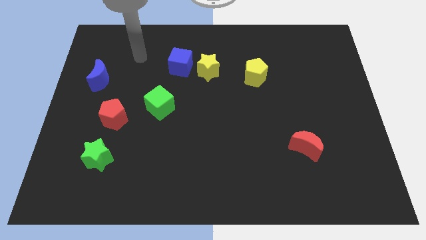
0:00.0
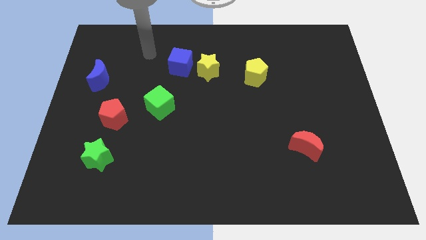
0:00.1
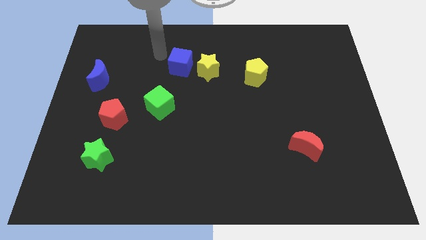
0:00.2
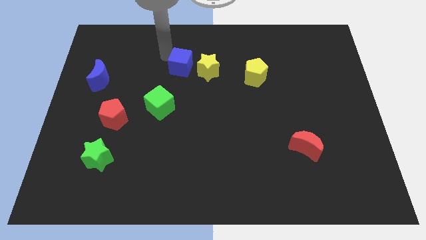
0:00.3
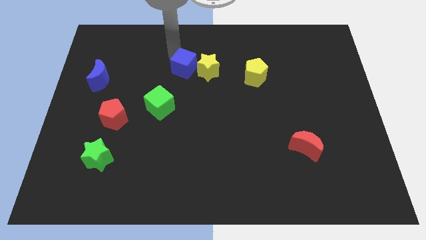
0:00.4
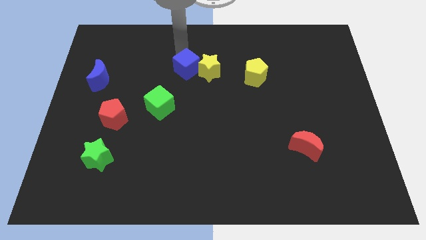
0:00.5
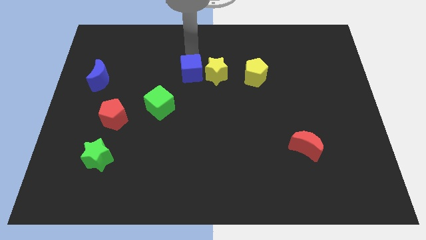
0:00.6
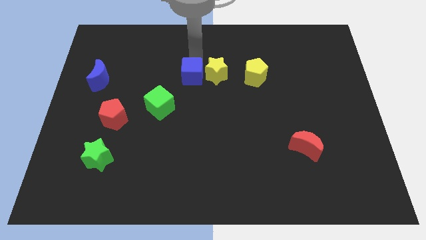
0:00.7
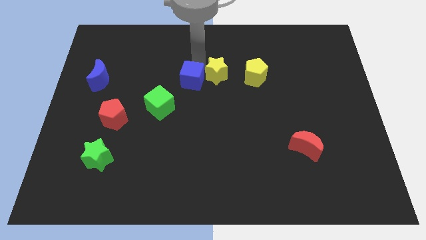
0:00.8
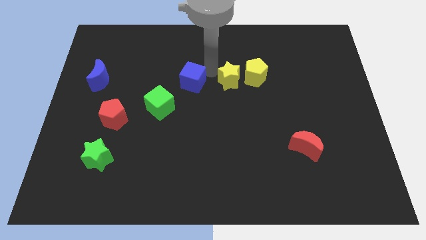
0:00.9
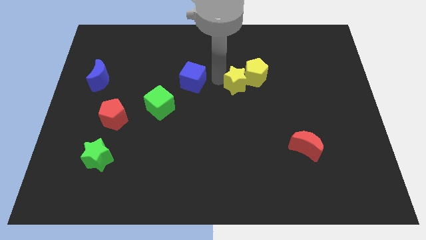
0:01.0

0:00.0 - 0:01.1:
pull the blue cube apart from the yellow star

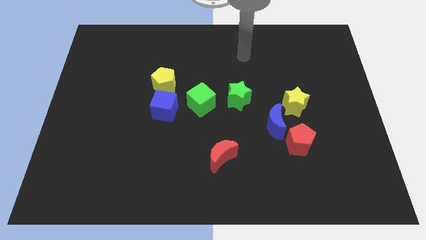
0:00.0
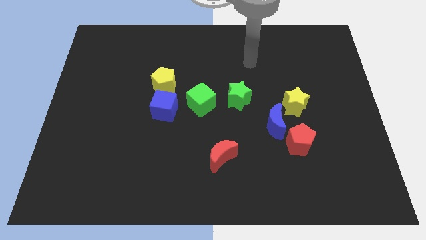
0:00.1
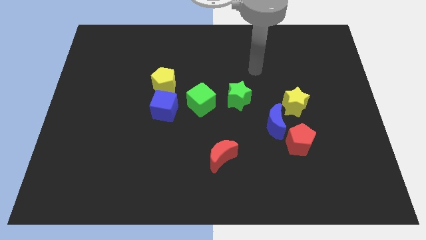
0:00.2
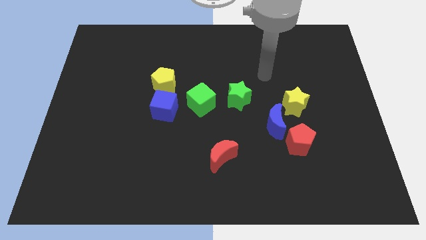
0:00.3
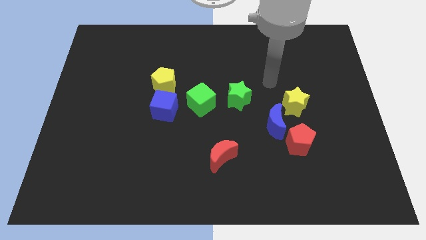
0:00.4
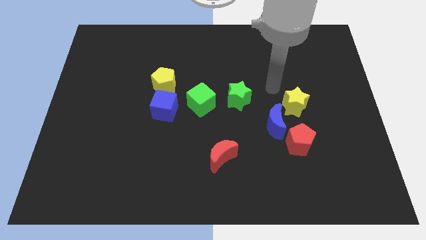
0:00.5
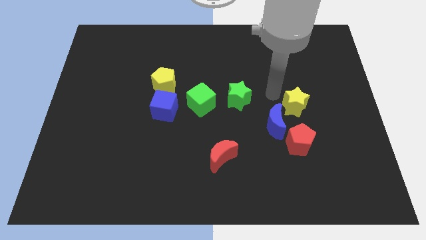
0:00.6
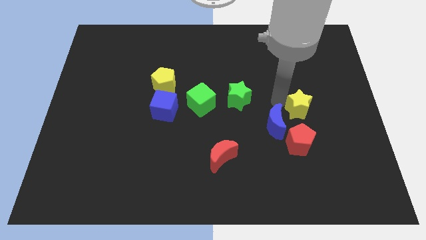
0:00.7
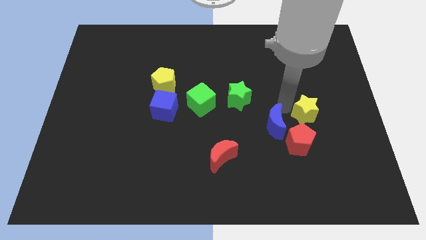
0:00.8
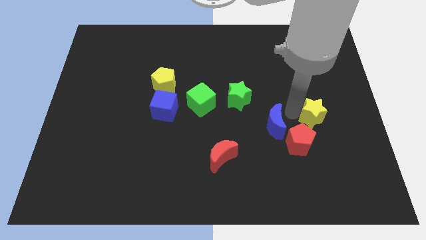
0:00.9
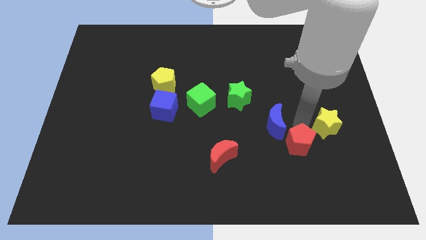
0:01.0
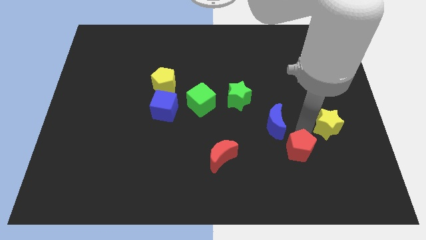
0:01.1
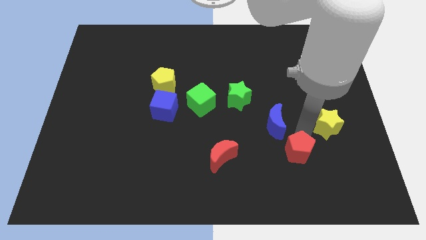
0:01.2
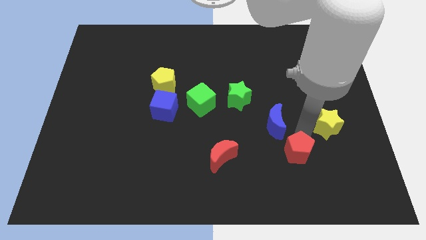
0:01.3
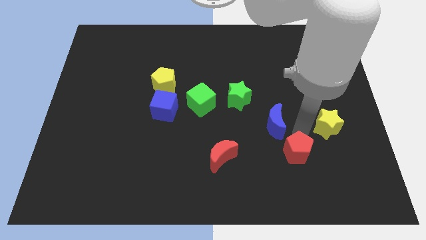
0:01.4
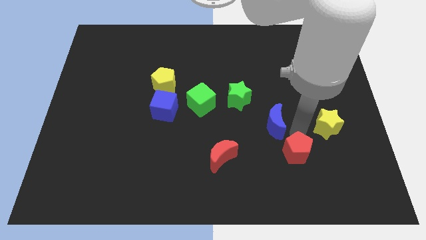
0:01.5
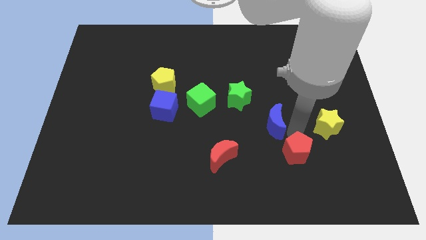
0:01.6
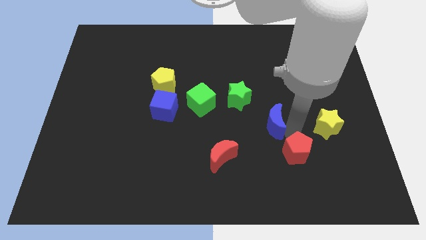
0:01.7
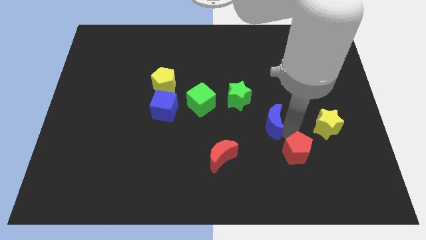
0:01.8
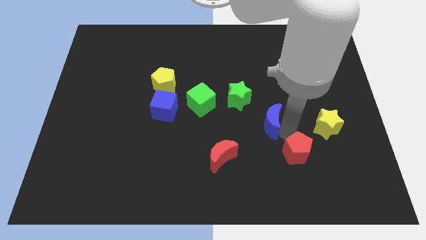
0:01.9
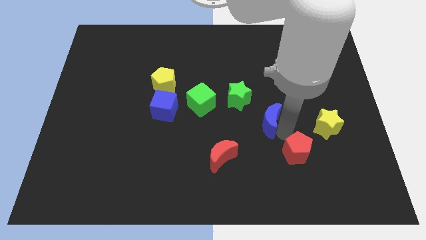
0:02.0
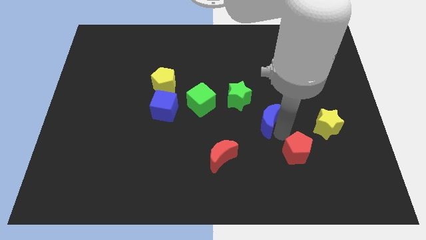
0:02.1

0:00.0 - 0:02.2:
separate the blue moon from the red pentagon and yellow star

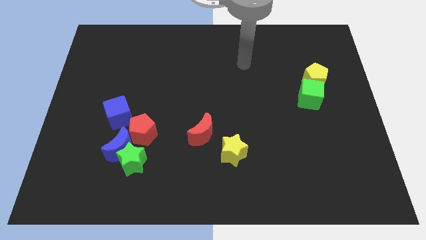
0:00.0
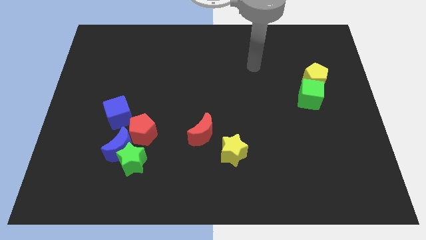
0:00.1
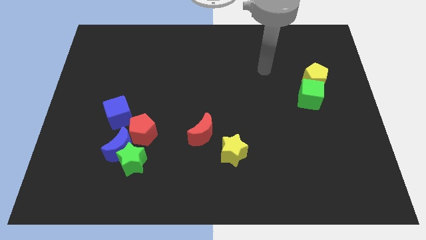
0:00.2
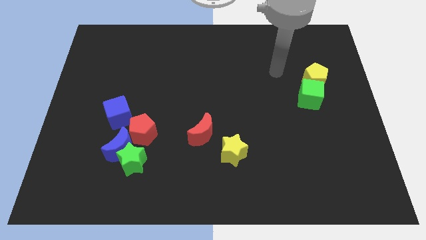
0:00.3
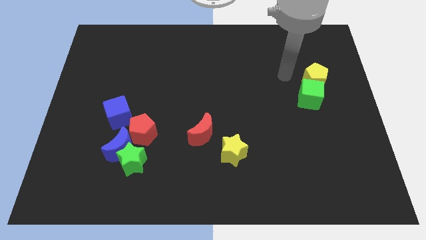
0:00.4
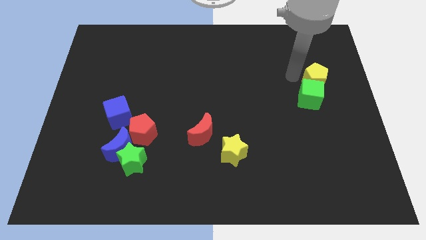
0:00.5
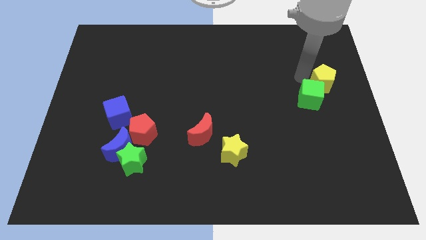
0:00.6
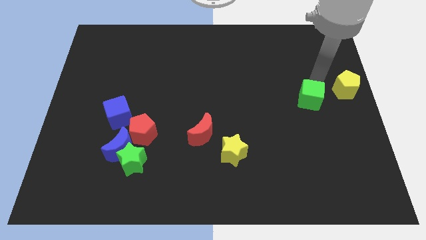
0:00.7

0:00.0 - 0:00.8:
pull the green cube apart from the yellow pentagon

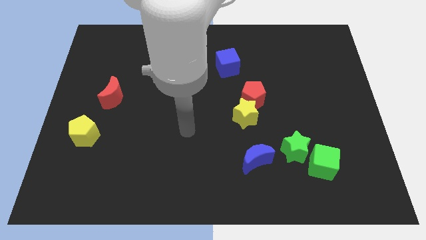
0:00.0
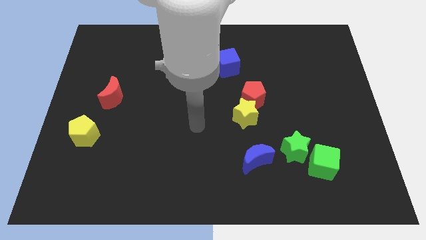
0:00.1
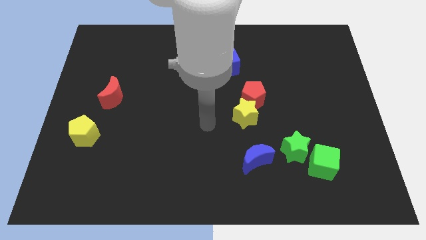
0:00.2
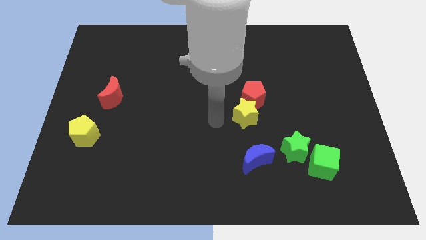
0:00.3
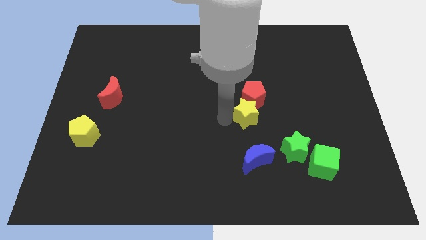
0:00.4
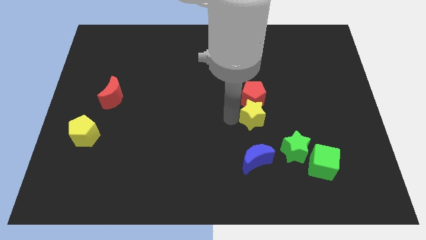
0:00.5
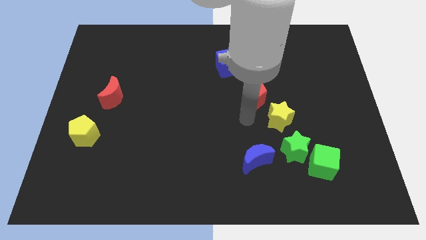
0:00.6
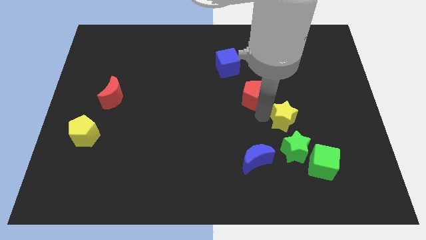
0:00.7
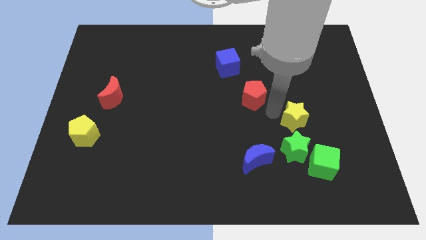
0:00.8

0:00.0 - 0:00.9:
separate the red pentagon from the yellow star

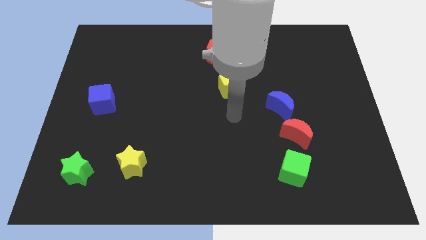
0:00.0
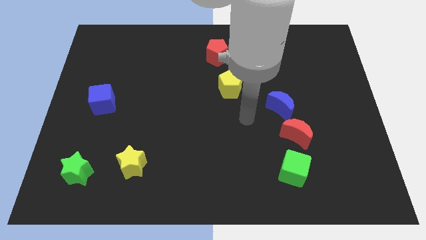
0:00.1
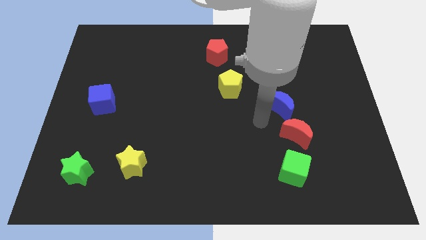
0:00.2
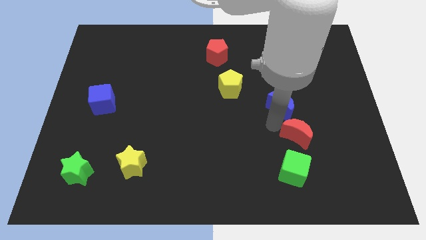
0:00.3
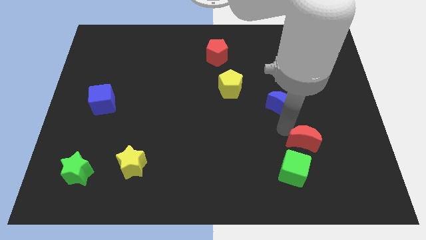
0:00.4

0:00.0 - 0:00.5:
separate the blue moon from the red moon

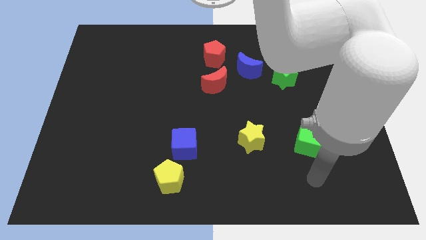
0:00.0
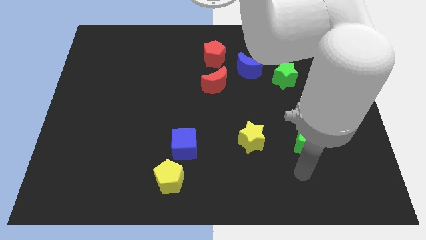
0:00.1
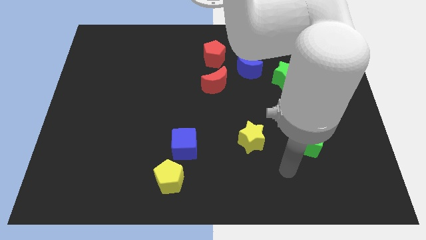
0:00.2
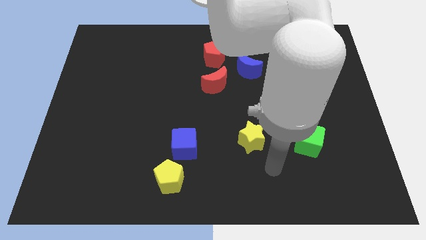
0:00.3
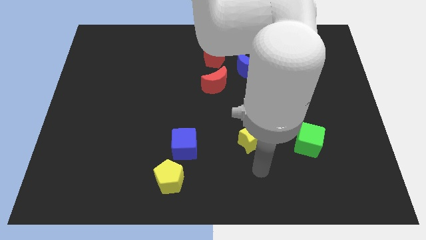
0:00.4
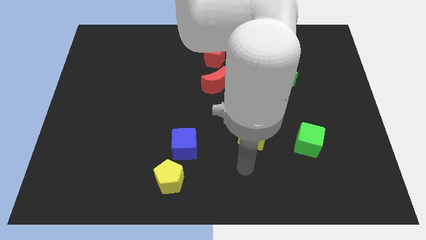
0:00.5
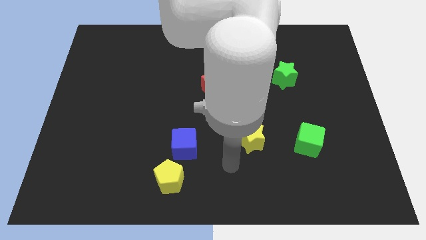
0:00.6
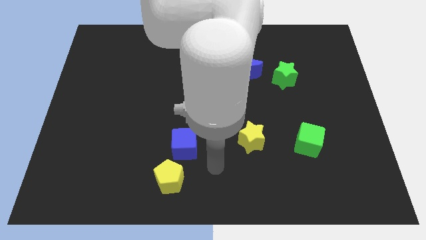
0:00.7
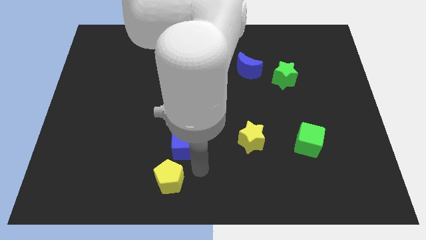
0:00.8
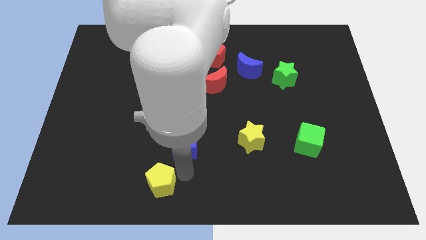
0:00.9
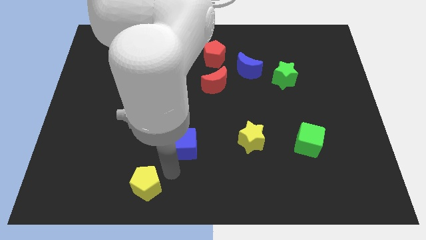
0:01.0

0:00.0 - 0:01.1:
separate the blue cube from the yellow pentagon

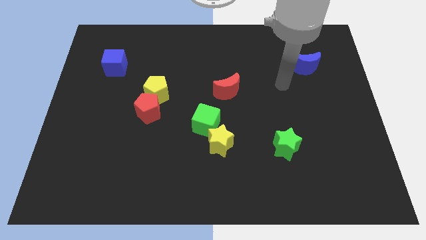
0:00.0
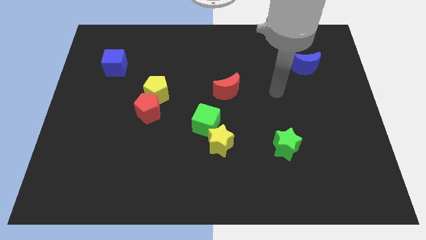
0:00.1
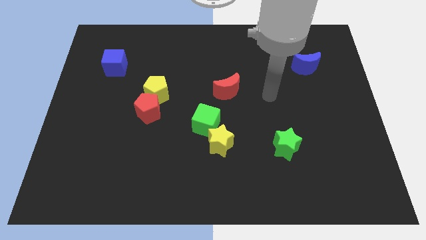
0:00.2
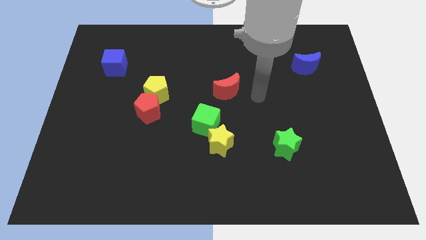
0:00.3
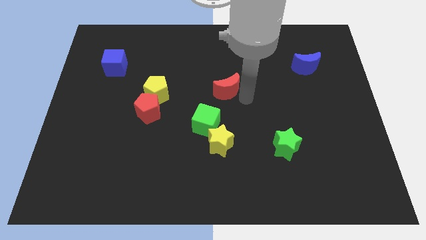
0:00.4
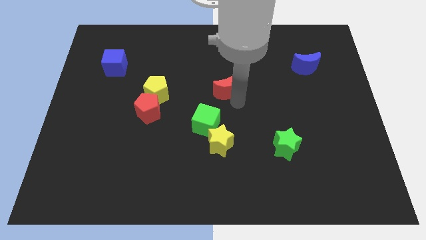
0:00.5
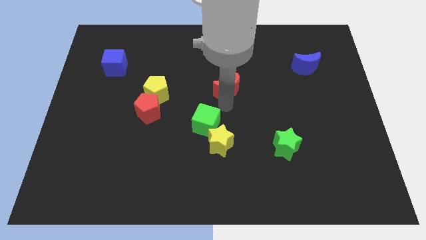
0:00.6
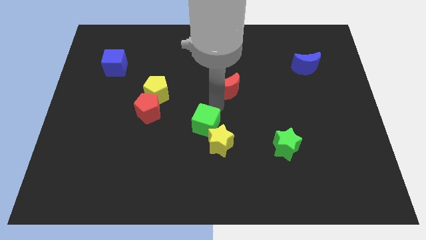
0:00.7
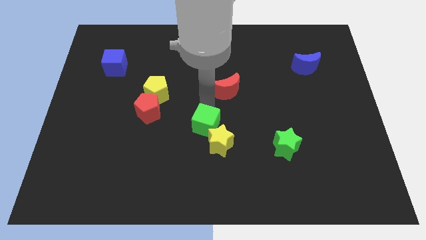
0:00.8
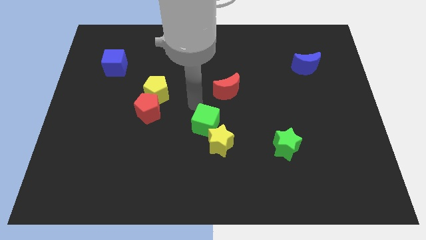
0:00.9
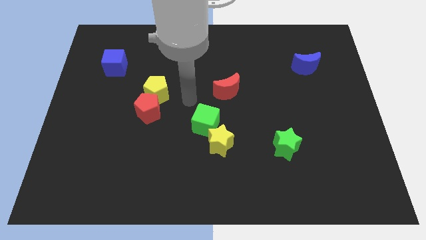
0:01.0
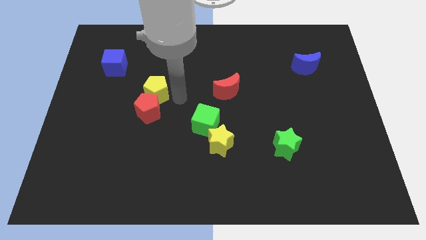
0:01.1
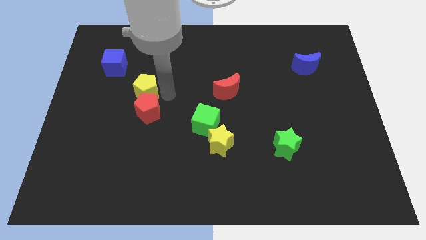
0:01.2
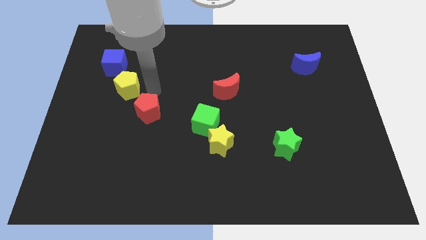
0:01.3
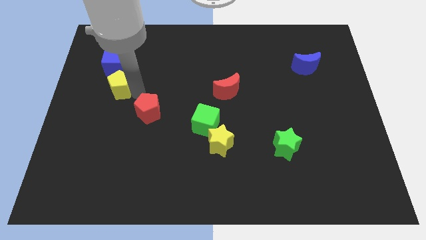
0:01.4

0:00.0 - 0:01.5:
move the red pentagon away from the yellow pentagon

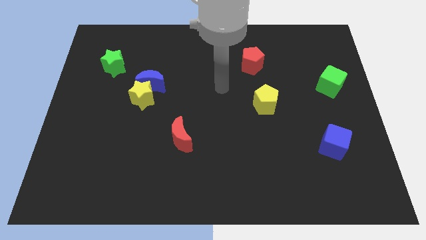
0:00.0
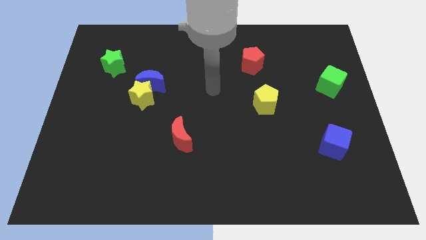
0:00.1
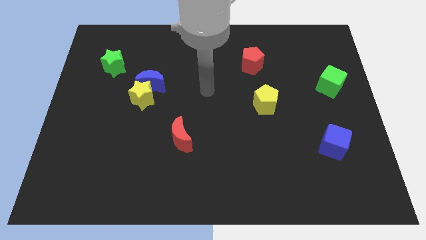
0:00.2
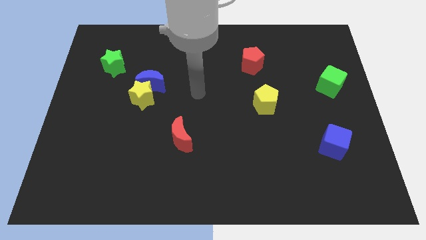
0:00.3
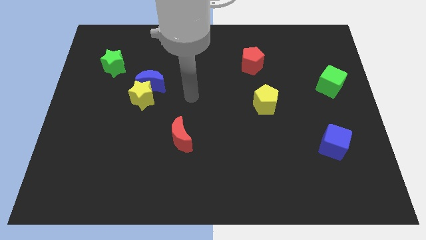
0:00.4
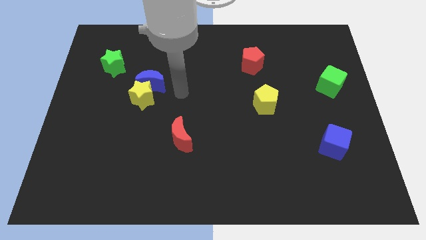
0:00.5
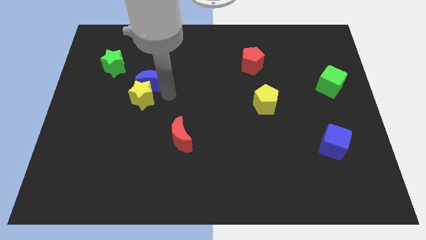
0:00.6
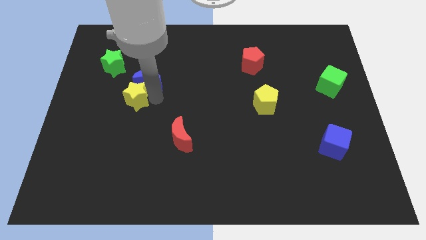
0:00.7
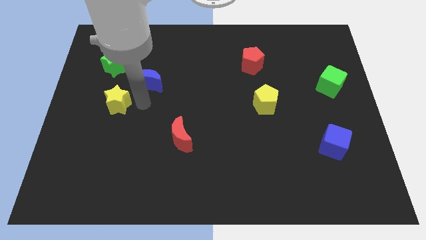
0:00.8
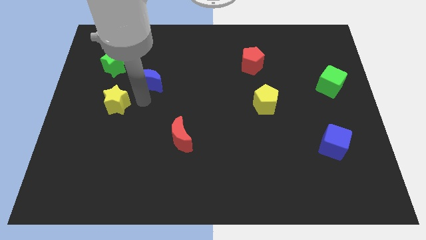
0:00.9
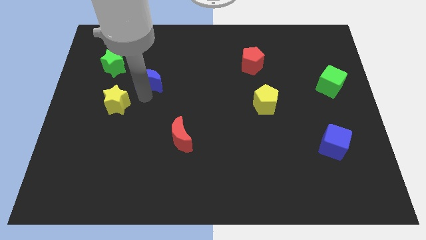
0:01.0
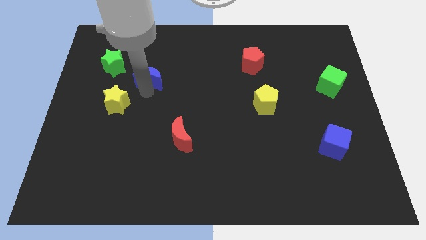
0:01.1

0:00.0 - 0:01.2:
separate the blue moon from the yellow star
